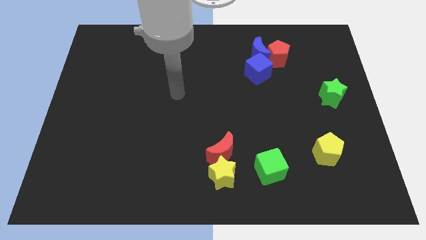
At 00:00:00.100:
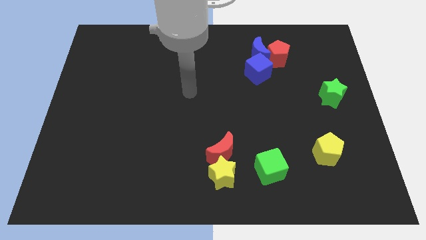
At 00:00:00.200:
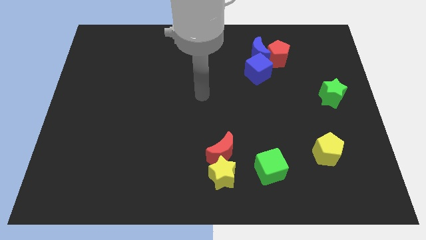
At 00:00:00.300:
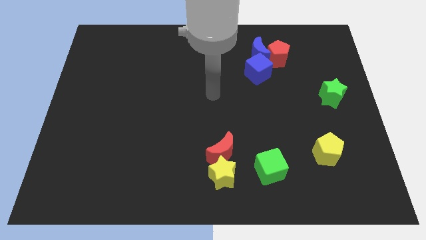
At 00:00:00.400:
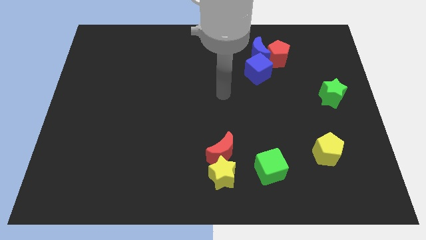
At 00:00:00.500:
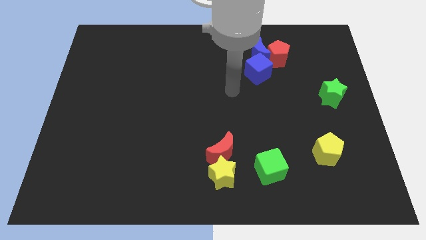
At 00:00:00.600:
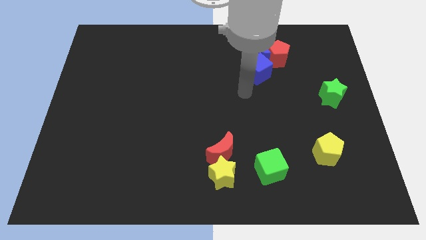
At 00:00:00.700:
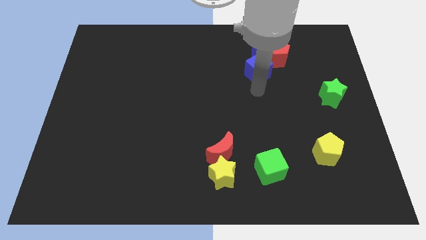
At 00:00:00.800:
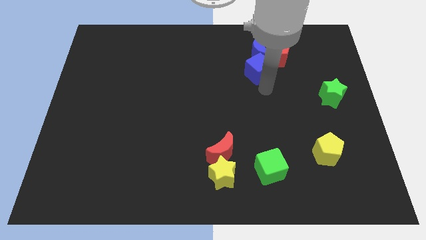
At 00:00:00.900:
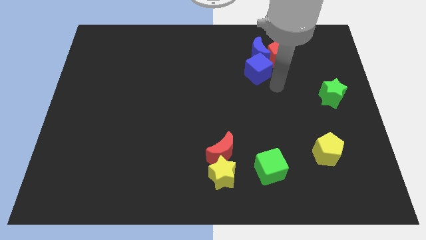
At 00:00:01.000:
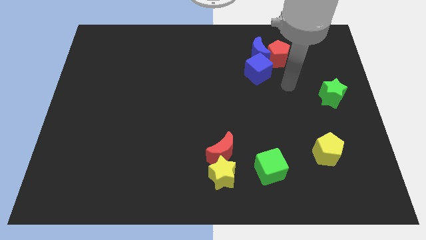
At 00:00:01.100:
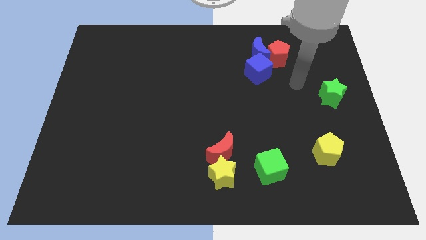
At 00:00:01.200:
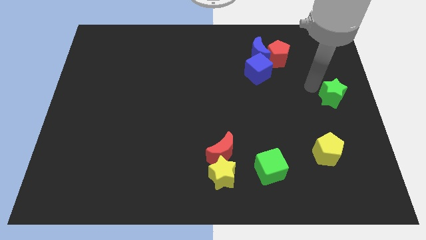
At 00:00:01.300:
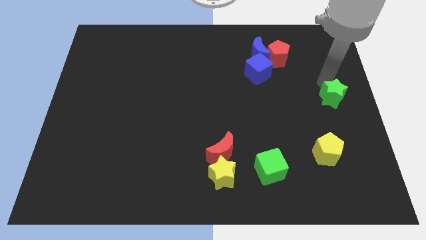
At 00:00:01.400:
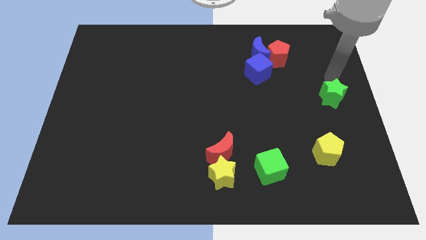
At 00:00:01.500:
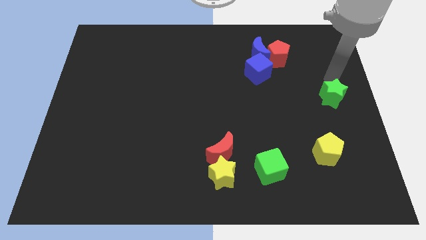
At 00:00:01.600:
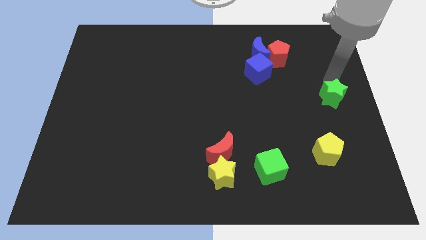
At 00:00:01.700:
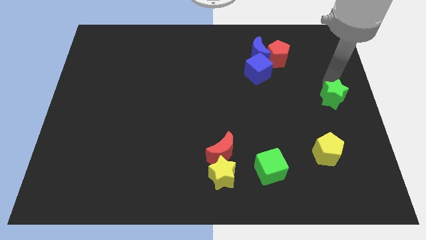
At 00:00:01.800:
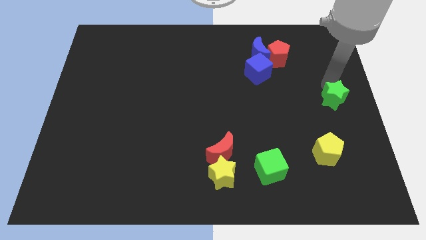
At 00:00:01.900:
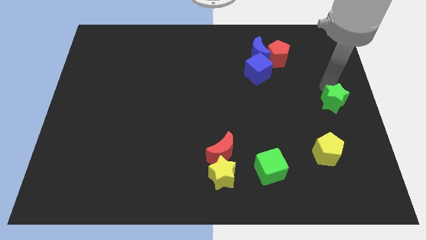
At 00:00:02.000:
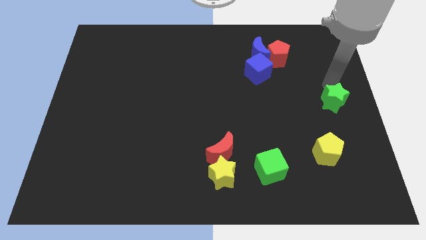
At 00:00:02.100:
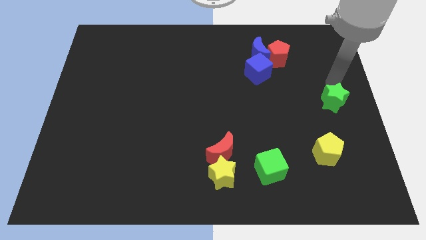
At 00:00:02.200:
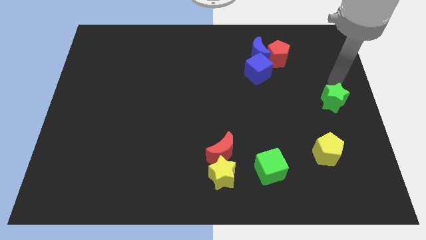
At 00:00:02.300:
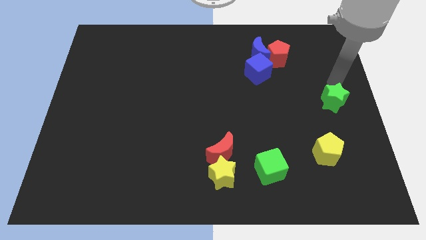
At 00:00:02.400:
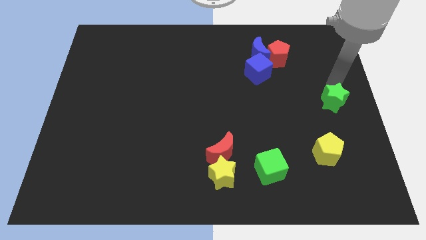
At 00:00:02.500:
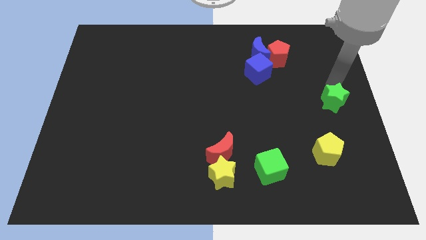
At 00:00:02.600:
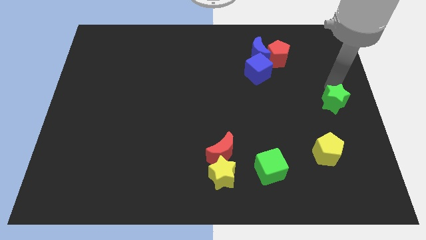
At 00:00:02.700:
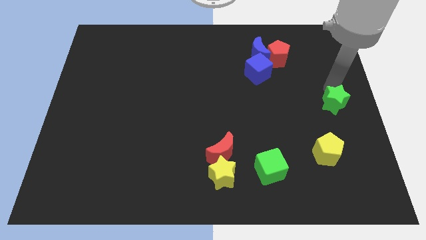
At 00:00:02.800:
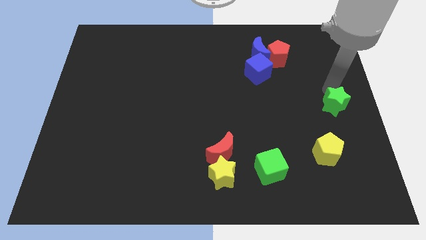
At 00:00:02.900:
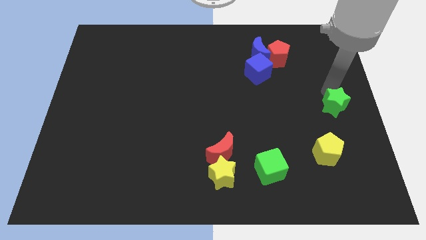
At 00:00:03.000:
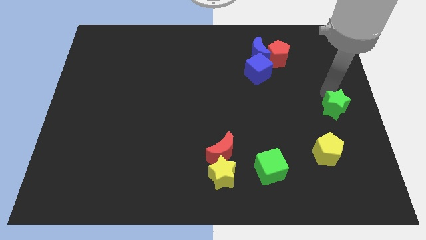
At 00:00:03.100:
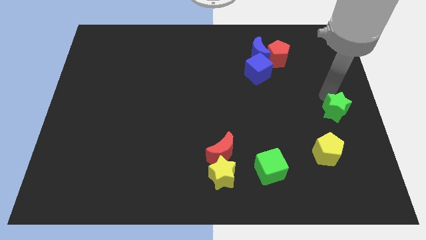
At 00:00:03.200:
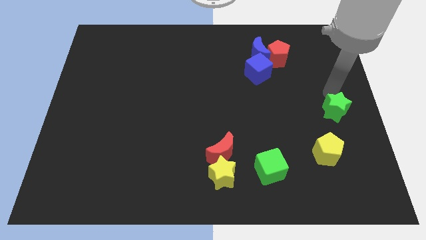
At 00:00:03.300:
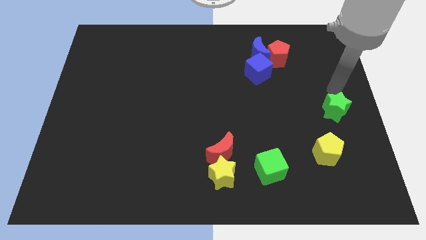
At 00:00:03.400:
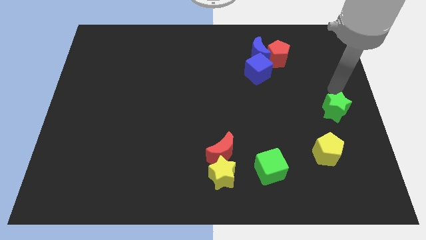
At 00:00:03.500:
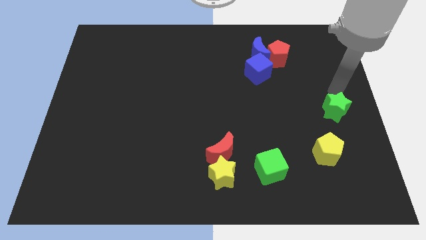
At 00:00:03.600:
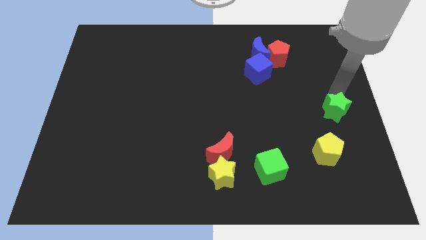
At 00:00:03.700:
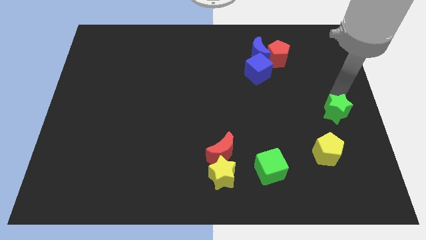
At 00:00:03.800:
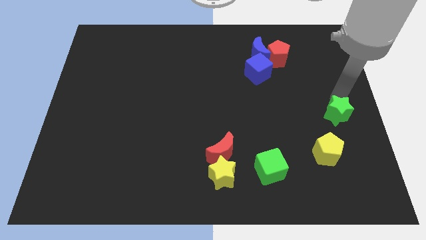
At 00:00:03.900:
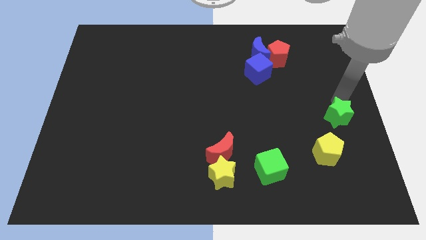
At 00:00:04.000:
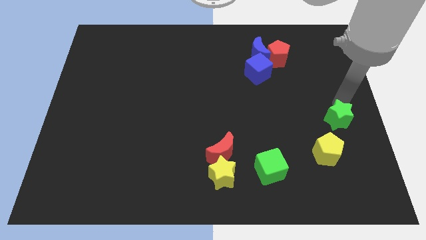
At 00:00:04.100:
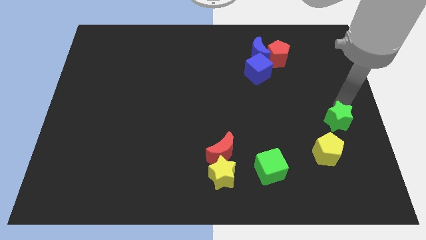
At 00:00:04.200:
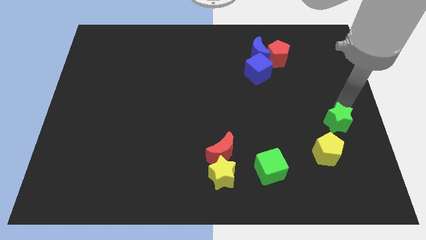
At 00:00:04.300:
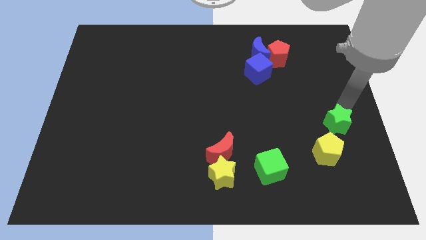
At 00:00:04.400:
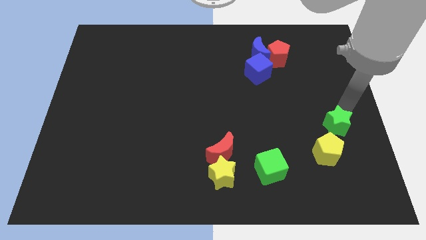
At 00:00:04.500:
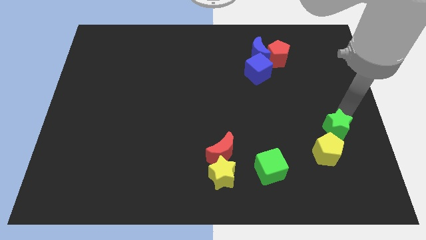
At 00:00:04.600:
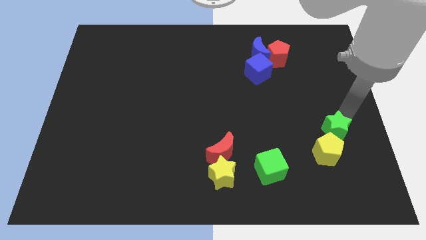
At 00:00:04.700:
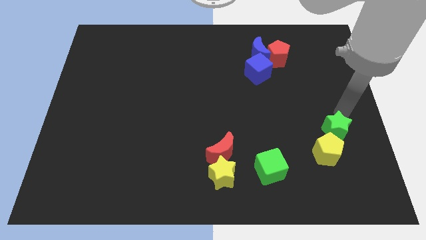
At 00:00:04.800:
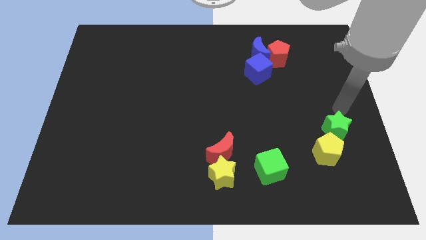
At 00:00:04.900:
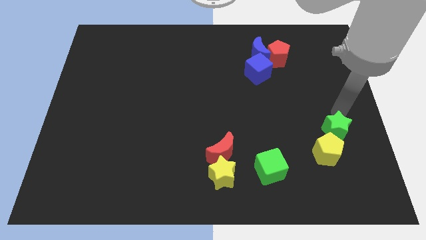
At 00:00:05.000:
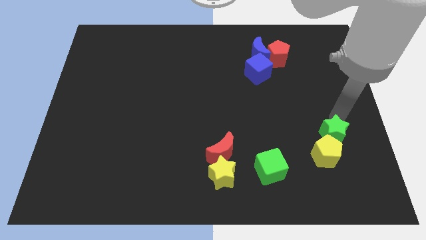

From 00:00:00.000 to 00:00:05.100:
slide the green star to the yellow pentagon

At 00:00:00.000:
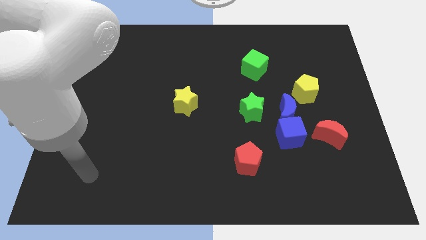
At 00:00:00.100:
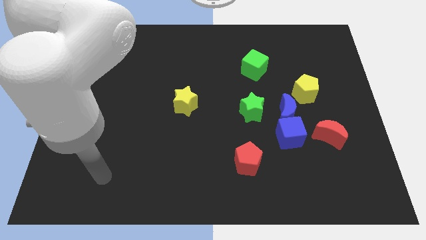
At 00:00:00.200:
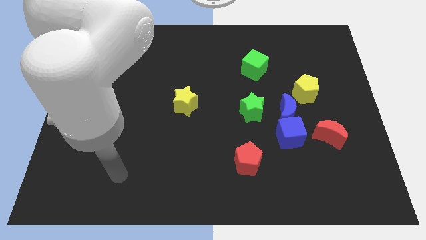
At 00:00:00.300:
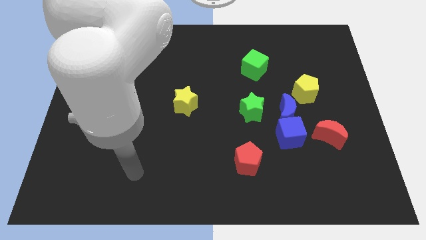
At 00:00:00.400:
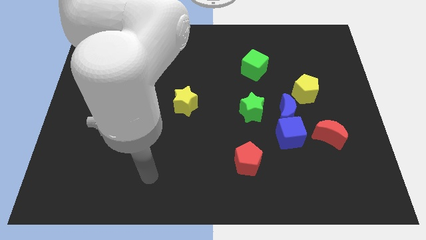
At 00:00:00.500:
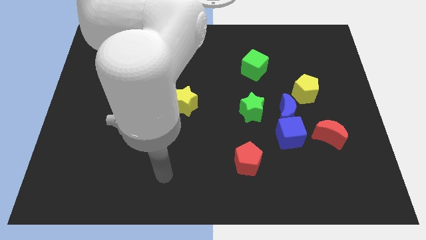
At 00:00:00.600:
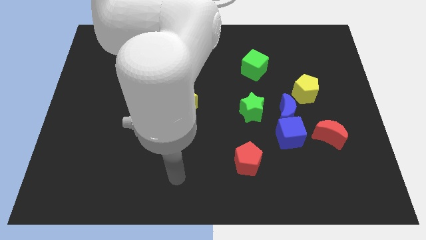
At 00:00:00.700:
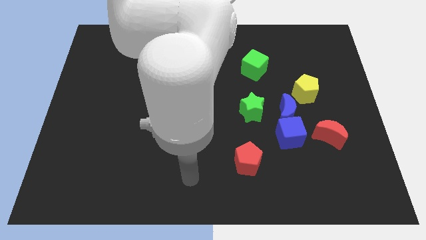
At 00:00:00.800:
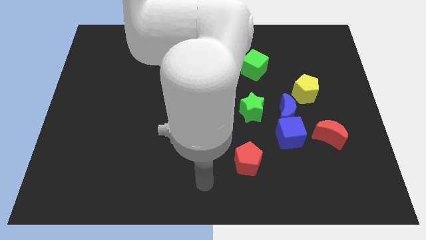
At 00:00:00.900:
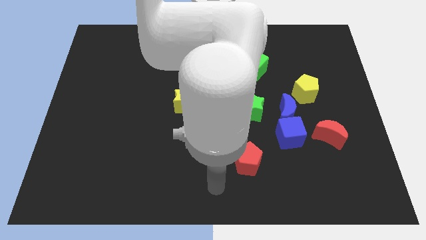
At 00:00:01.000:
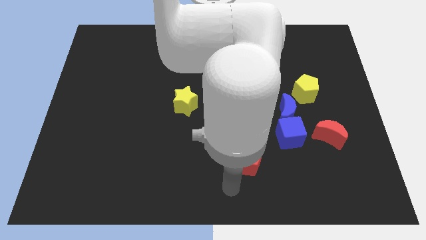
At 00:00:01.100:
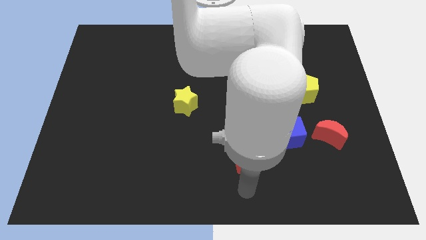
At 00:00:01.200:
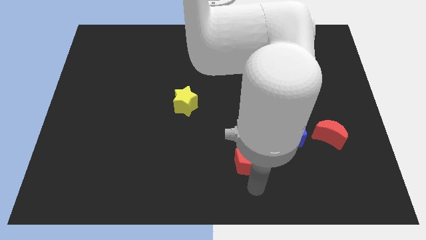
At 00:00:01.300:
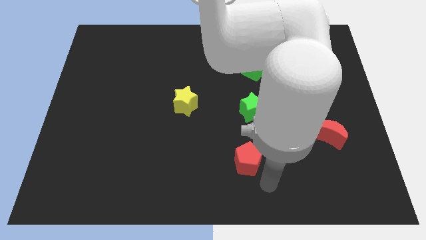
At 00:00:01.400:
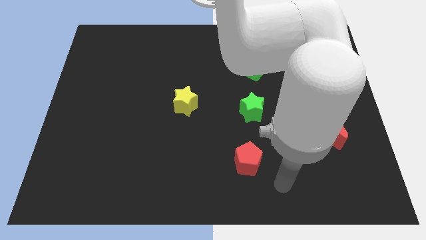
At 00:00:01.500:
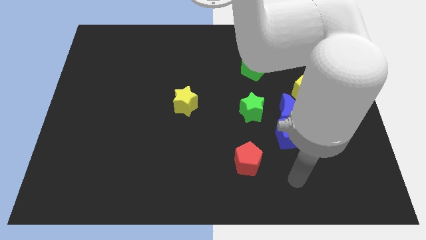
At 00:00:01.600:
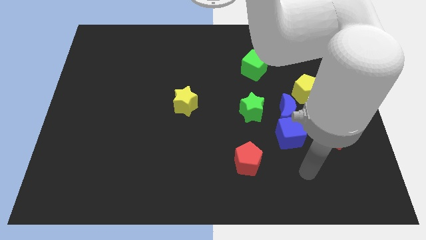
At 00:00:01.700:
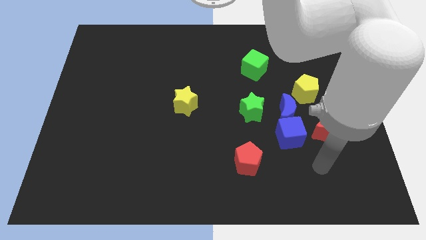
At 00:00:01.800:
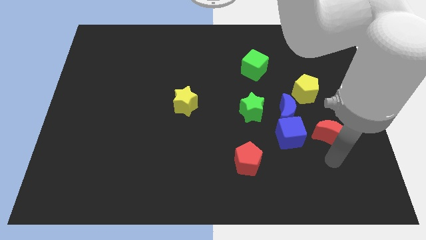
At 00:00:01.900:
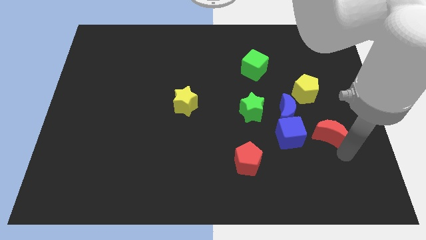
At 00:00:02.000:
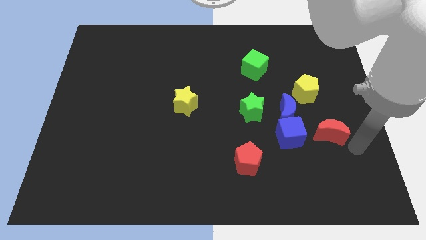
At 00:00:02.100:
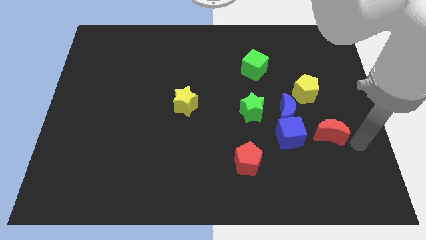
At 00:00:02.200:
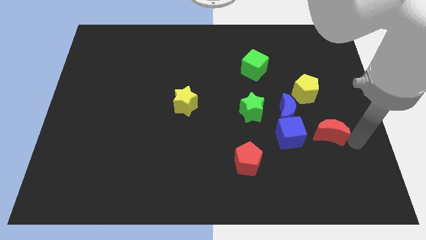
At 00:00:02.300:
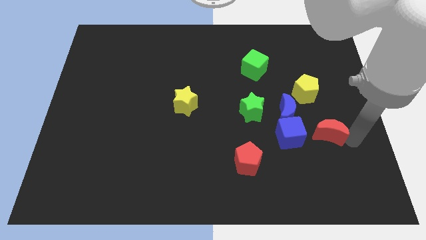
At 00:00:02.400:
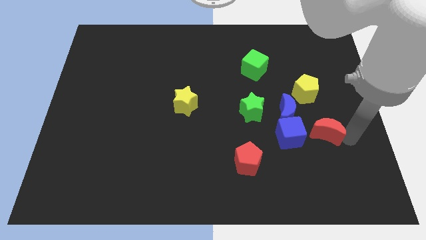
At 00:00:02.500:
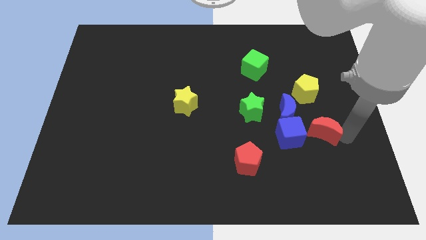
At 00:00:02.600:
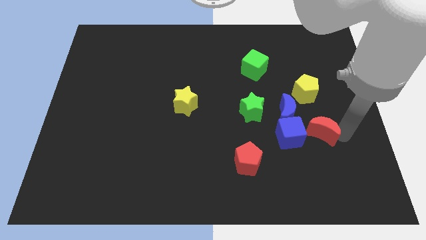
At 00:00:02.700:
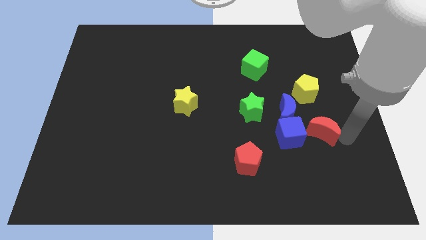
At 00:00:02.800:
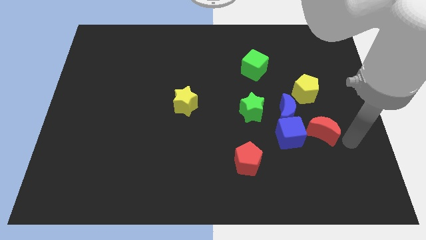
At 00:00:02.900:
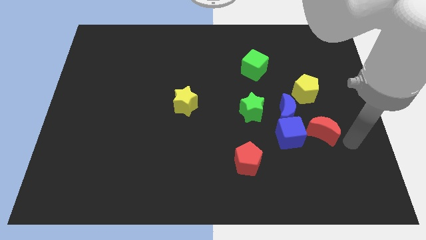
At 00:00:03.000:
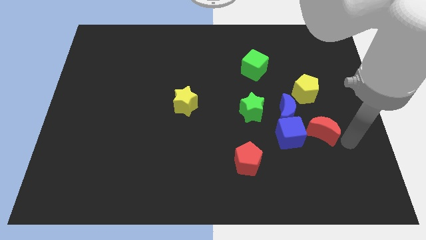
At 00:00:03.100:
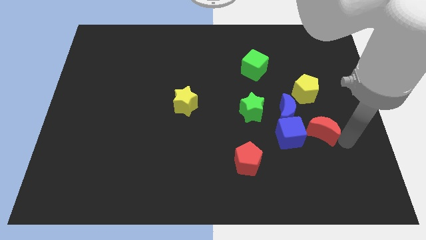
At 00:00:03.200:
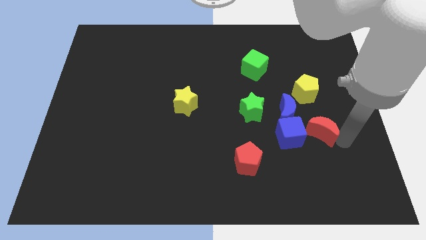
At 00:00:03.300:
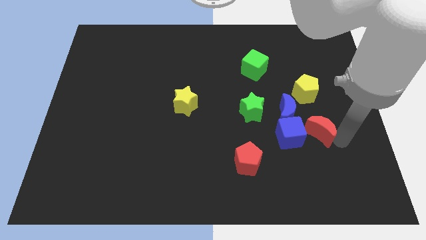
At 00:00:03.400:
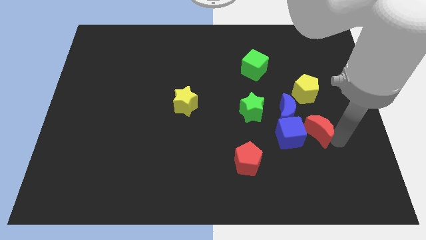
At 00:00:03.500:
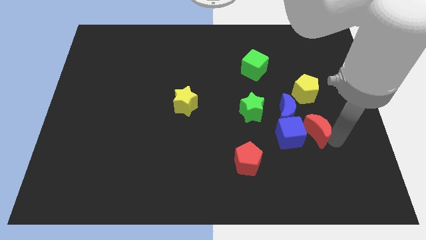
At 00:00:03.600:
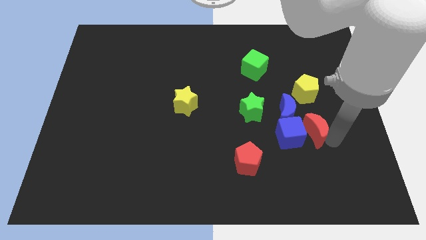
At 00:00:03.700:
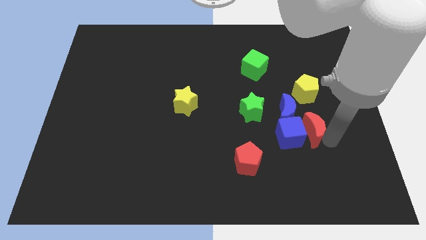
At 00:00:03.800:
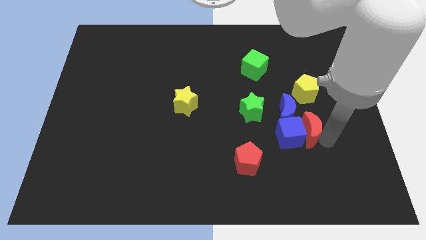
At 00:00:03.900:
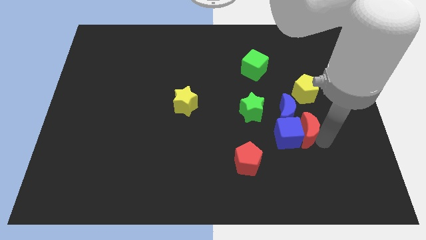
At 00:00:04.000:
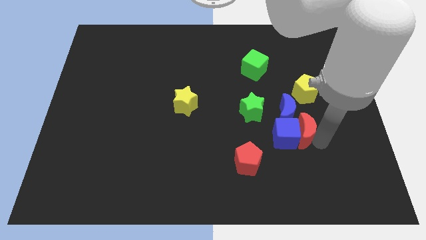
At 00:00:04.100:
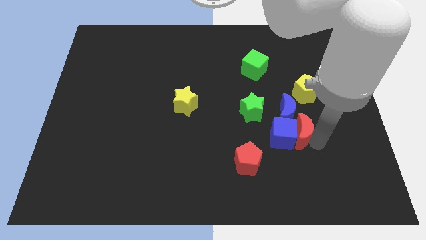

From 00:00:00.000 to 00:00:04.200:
push the red moon to the blue moon
